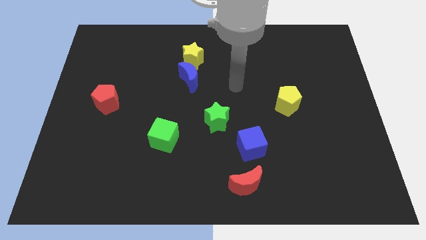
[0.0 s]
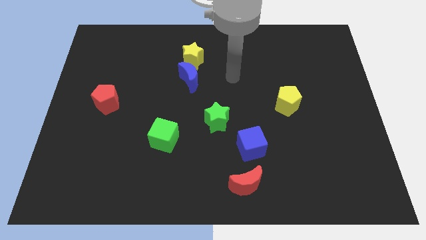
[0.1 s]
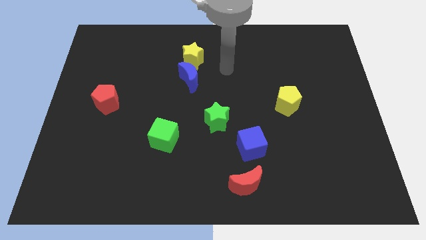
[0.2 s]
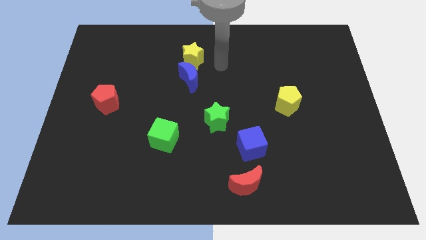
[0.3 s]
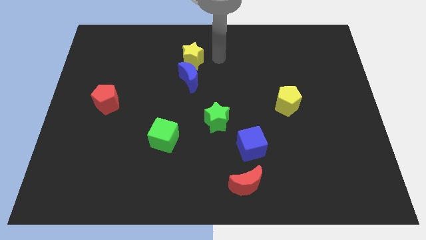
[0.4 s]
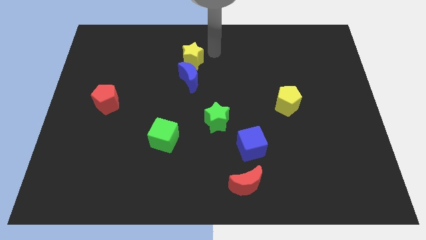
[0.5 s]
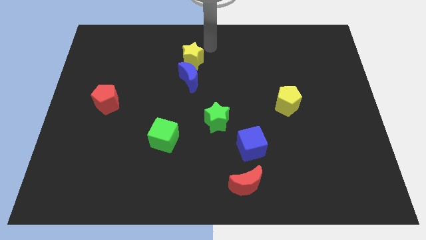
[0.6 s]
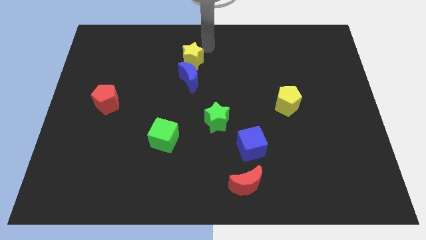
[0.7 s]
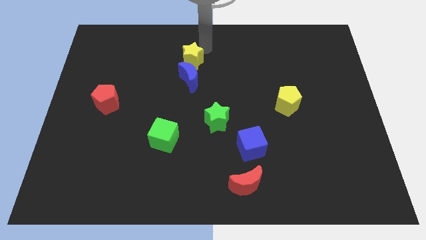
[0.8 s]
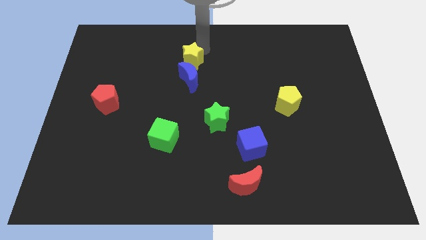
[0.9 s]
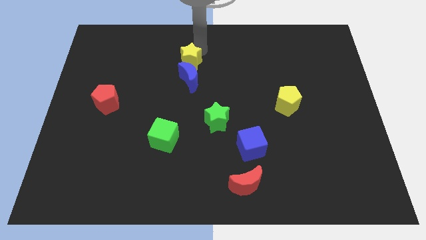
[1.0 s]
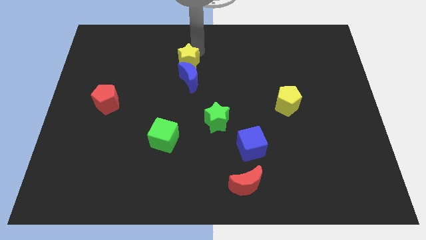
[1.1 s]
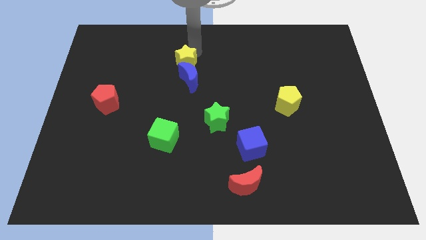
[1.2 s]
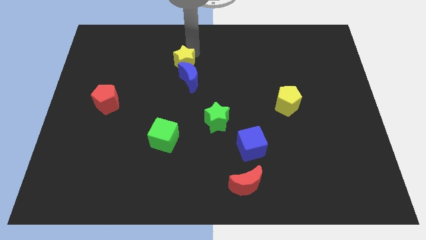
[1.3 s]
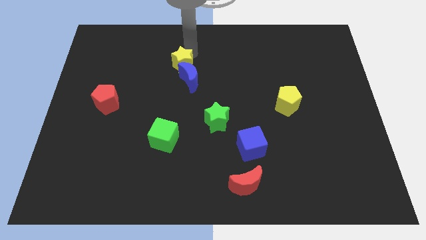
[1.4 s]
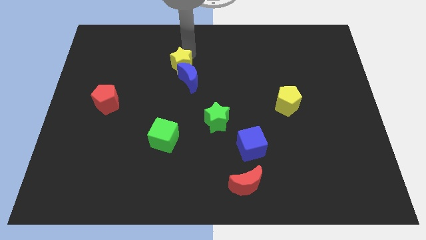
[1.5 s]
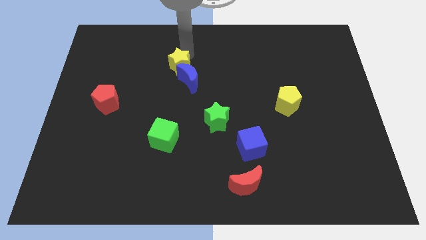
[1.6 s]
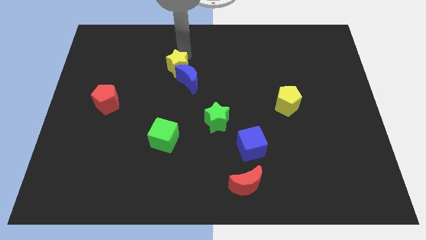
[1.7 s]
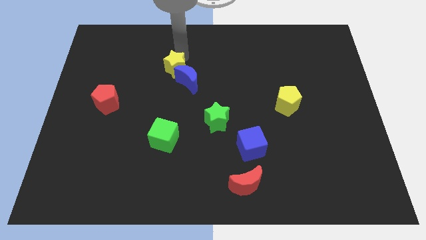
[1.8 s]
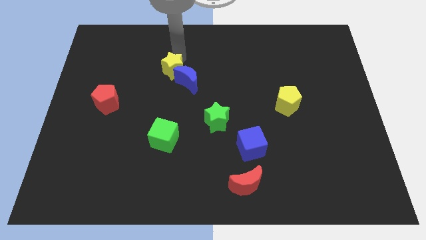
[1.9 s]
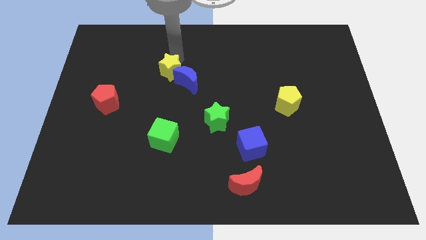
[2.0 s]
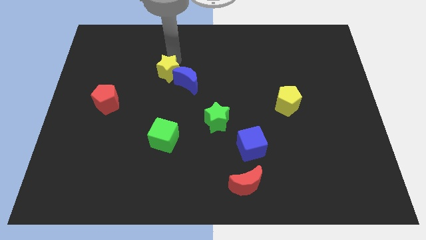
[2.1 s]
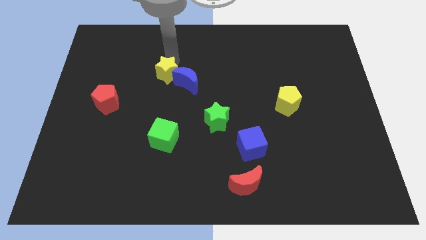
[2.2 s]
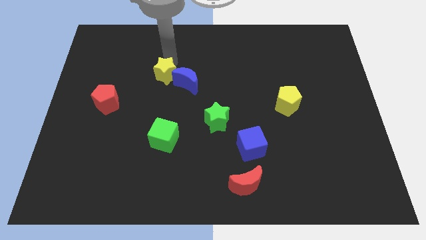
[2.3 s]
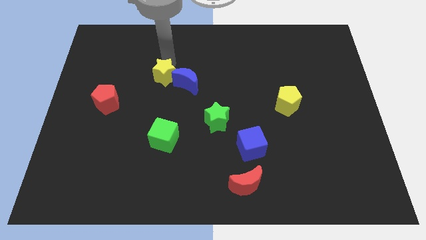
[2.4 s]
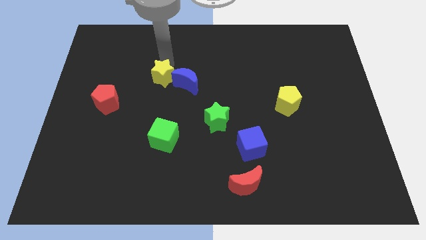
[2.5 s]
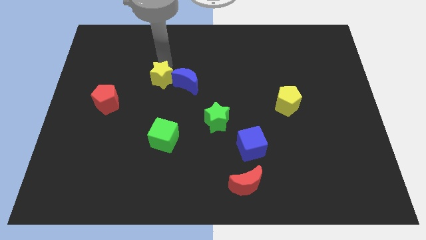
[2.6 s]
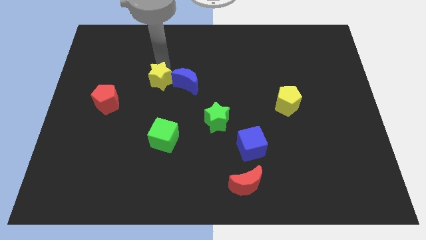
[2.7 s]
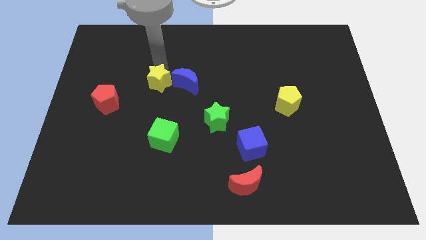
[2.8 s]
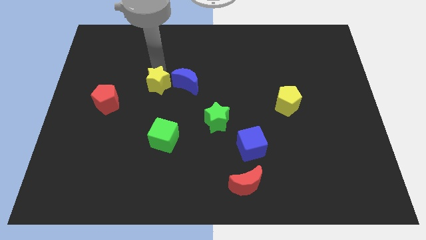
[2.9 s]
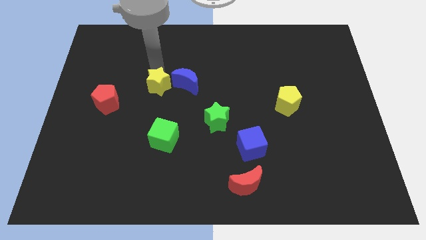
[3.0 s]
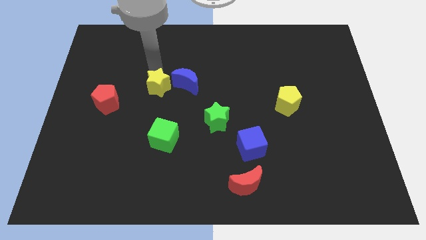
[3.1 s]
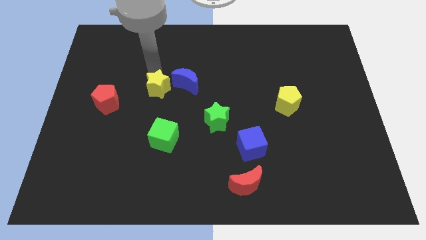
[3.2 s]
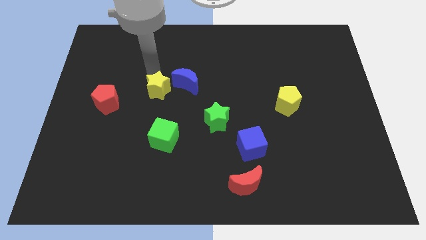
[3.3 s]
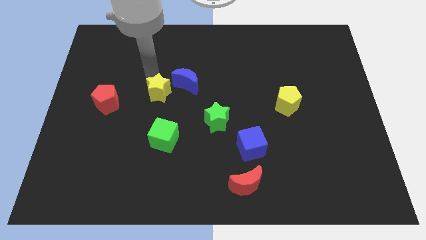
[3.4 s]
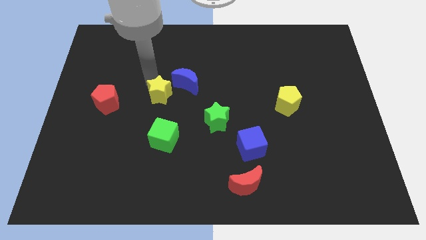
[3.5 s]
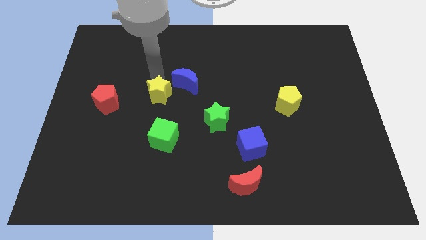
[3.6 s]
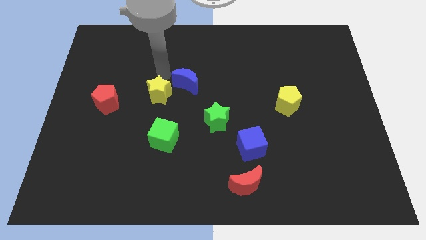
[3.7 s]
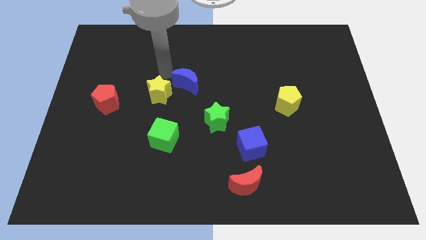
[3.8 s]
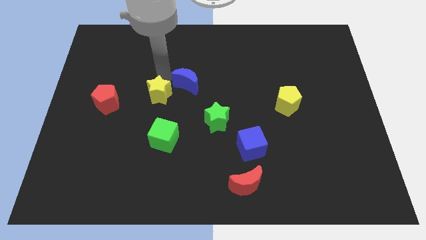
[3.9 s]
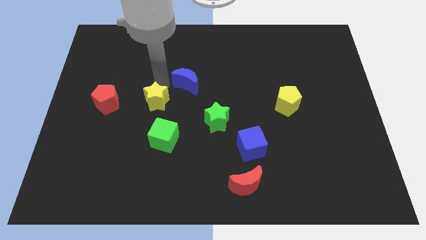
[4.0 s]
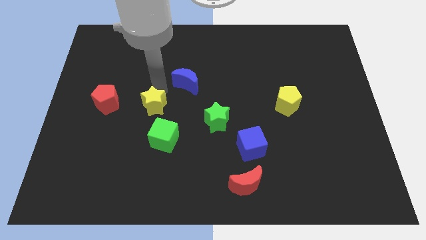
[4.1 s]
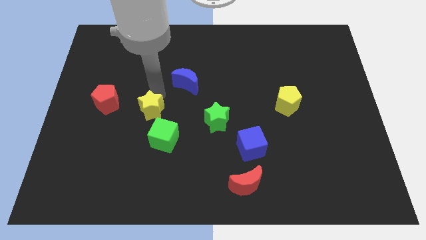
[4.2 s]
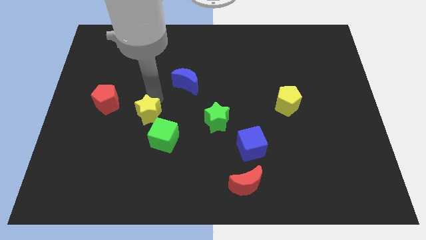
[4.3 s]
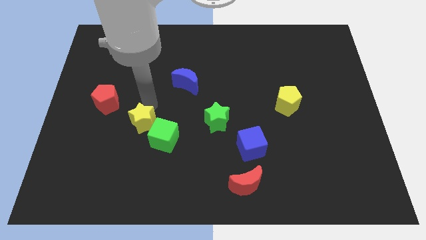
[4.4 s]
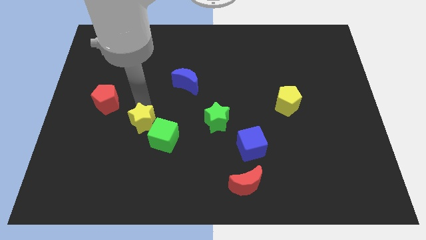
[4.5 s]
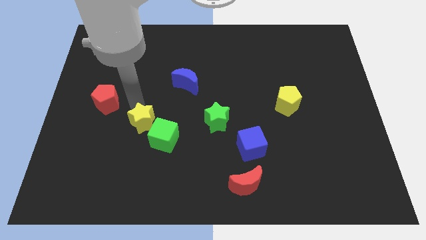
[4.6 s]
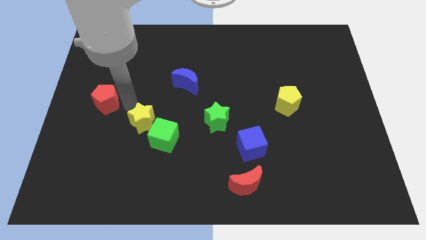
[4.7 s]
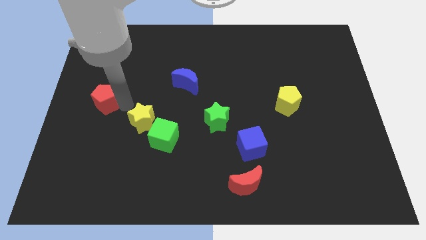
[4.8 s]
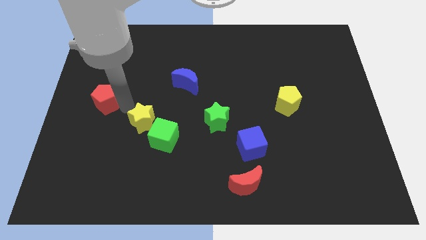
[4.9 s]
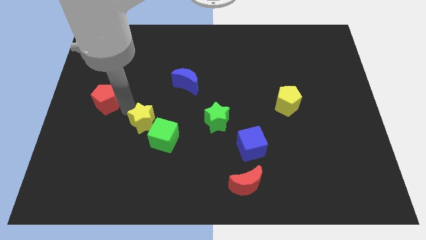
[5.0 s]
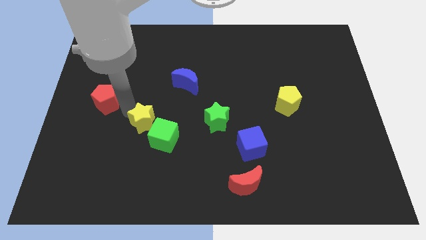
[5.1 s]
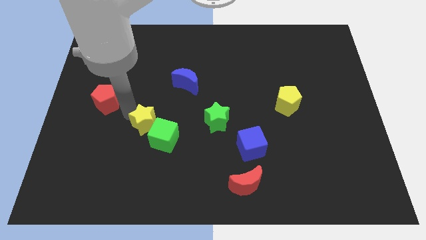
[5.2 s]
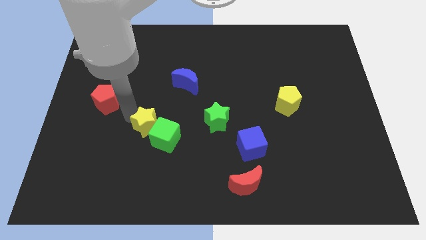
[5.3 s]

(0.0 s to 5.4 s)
put the yellow star towards the green cube

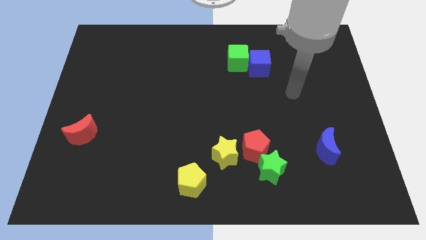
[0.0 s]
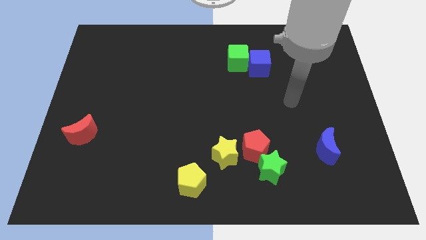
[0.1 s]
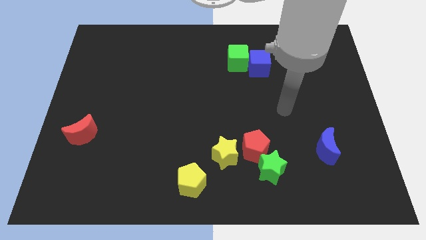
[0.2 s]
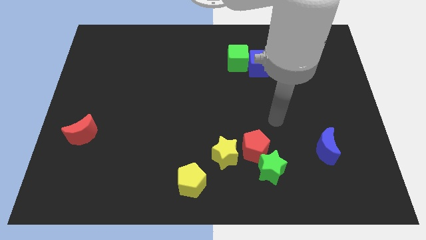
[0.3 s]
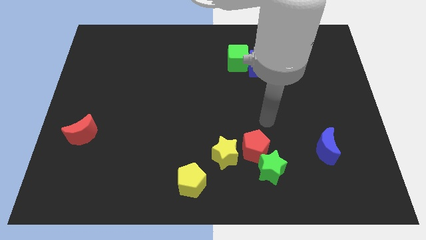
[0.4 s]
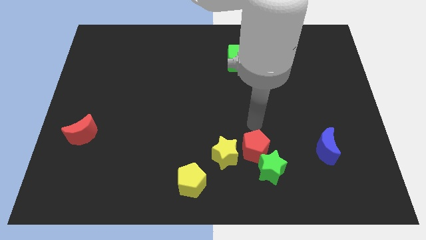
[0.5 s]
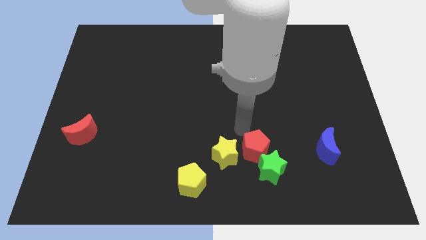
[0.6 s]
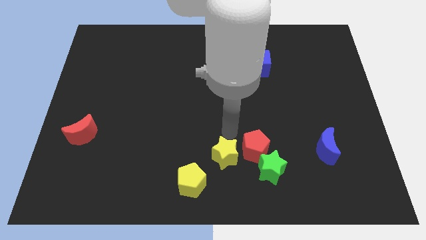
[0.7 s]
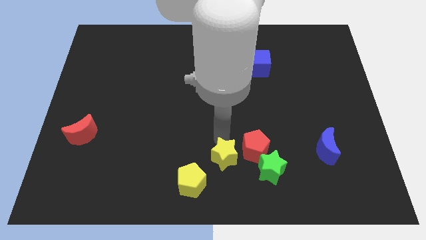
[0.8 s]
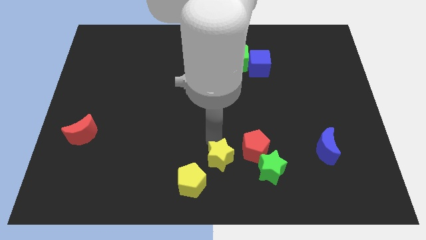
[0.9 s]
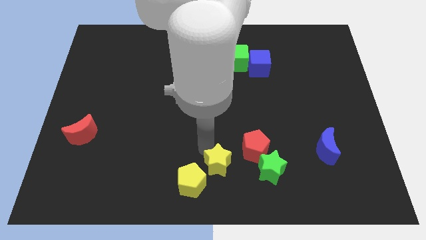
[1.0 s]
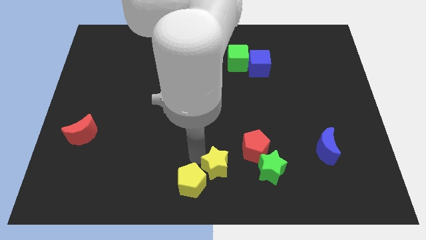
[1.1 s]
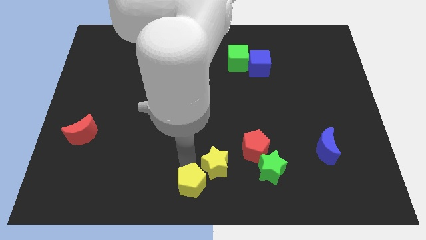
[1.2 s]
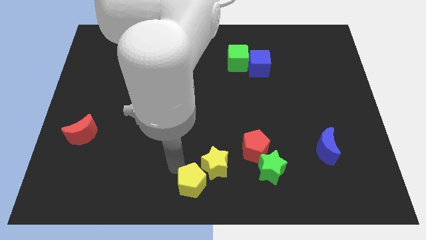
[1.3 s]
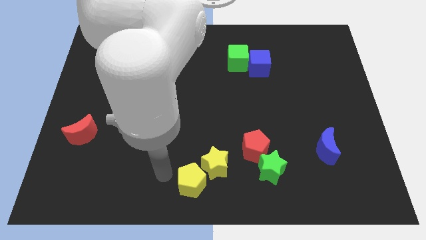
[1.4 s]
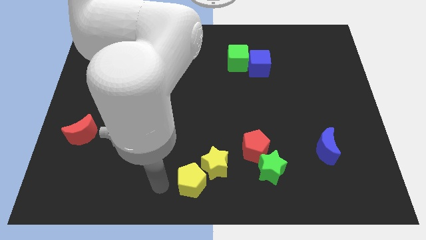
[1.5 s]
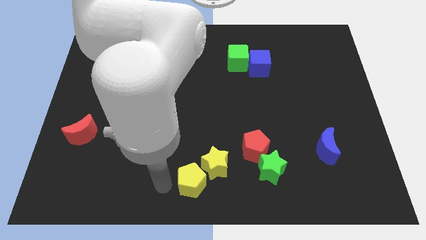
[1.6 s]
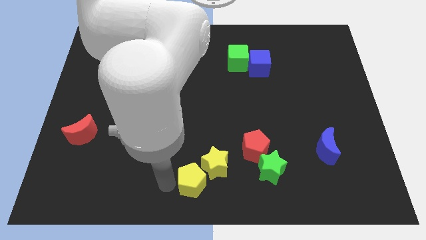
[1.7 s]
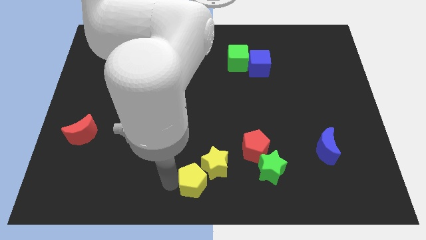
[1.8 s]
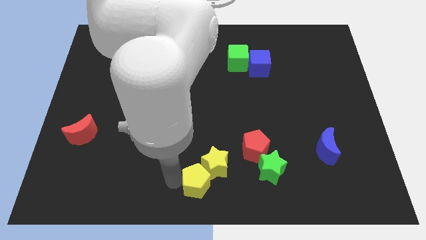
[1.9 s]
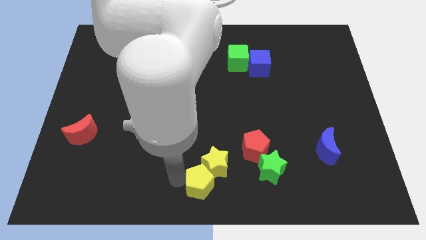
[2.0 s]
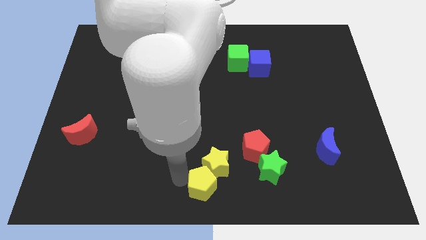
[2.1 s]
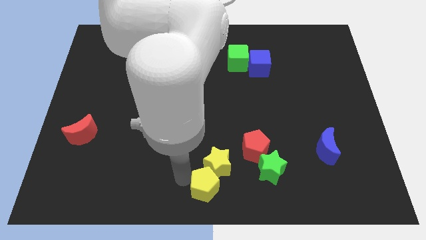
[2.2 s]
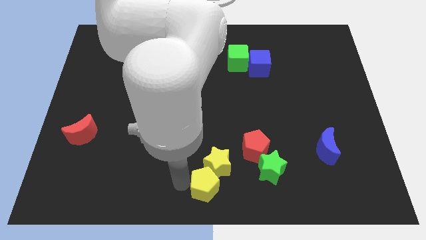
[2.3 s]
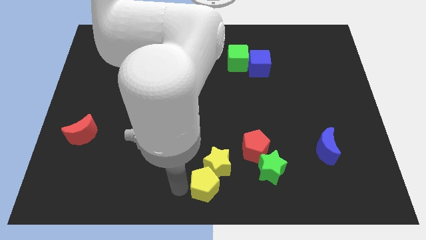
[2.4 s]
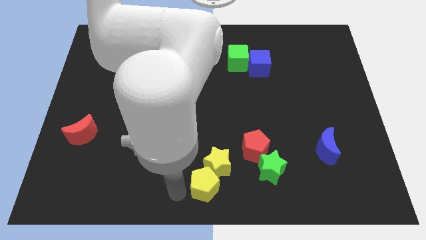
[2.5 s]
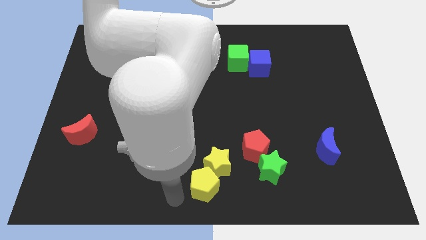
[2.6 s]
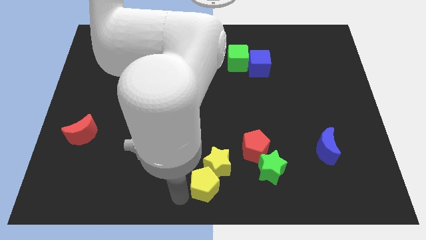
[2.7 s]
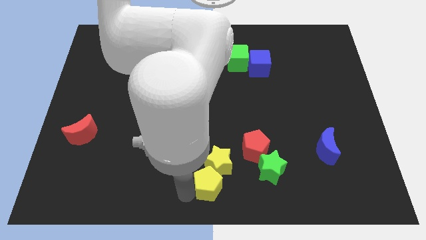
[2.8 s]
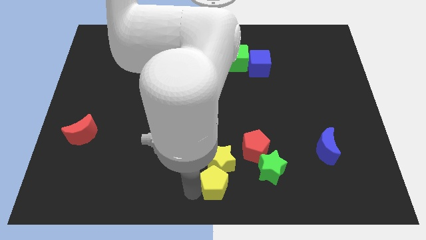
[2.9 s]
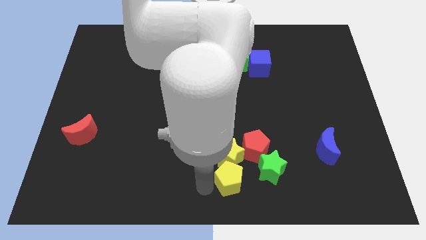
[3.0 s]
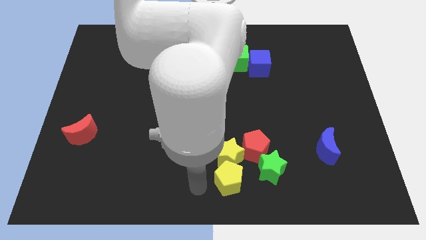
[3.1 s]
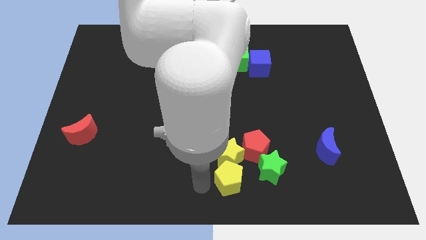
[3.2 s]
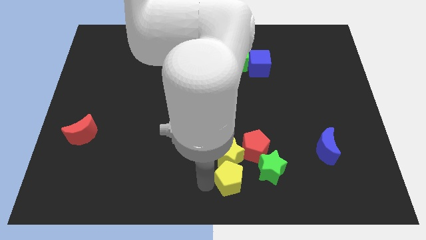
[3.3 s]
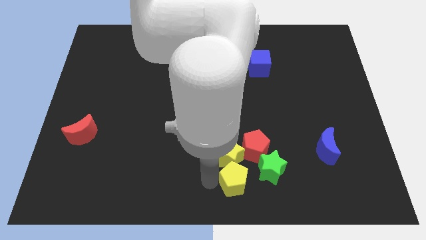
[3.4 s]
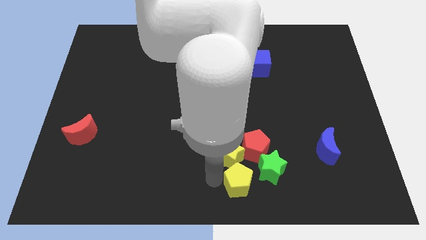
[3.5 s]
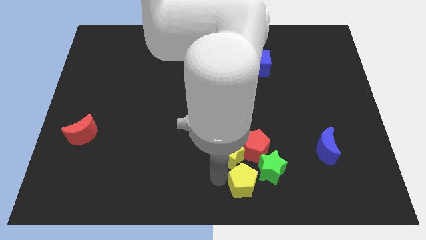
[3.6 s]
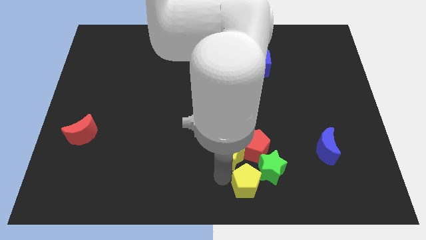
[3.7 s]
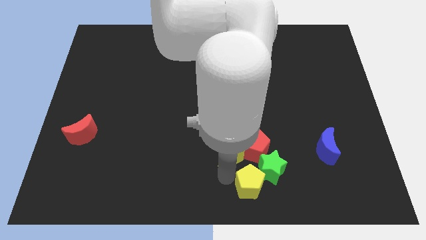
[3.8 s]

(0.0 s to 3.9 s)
push the yellow pentagon close to the green star
